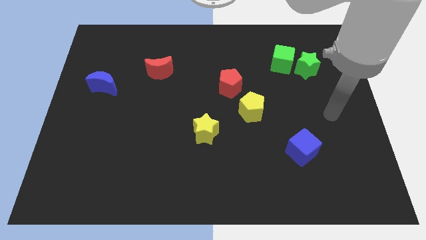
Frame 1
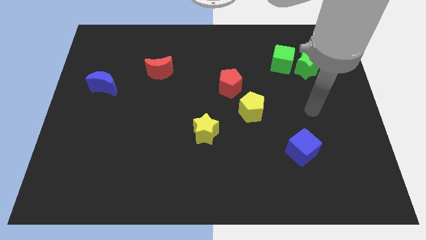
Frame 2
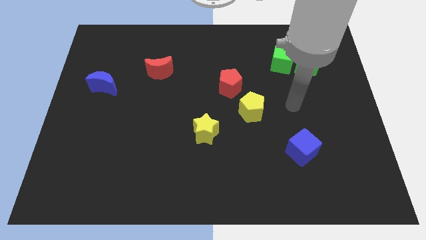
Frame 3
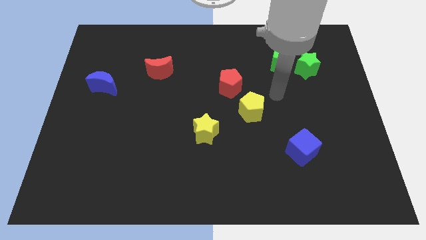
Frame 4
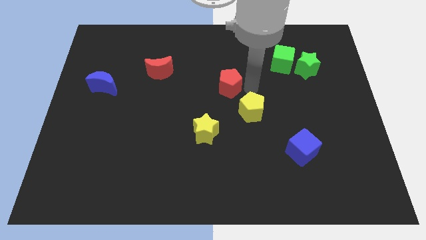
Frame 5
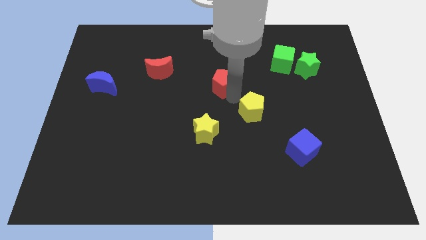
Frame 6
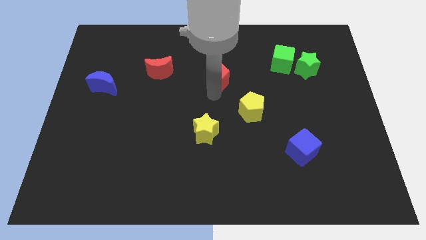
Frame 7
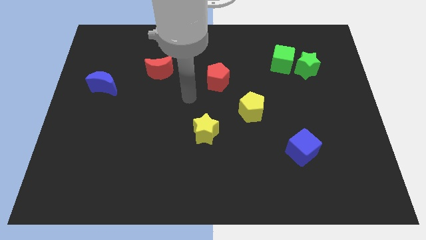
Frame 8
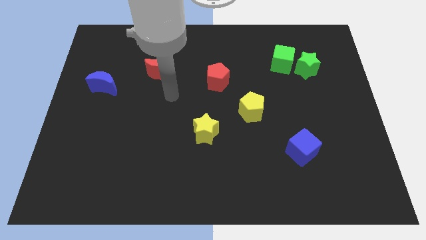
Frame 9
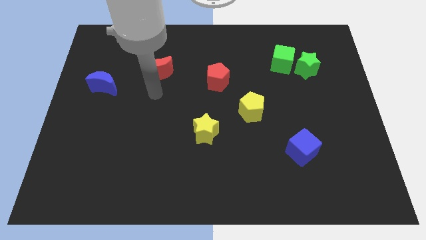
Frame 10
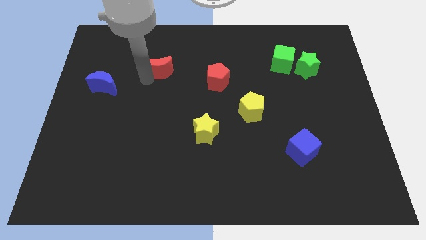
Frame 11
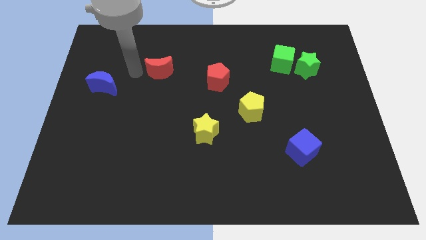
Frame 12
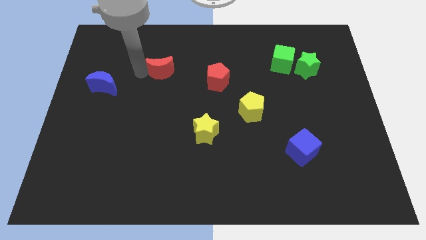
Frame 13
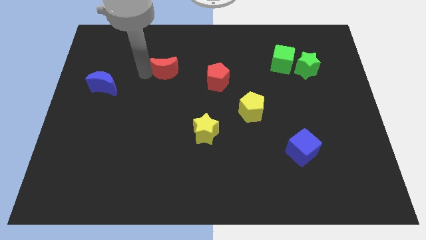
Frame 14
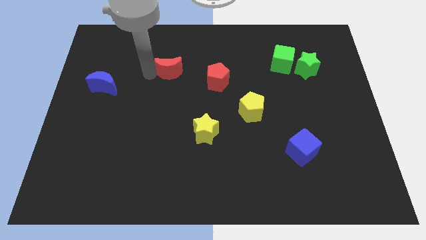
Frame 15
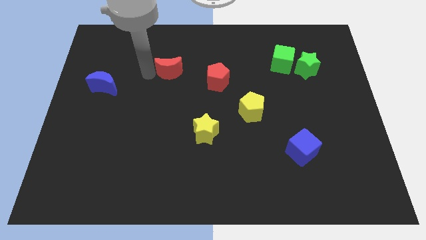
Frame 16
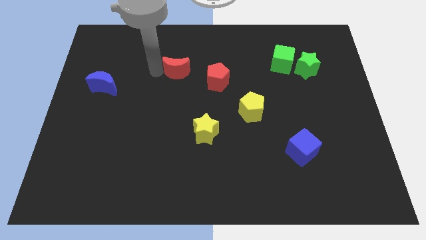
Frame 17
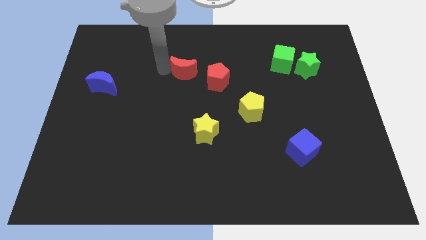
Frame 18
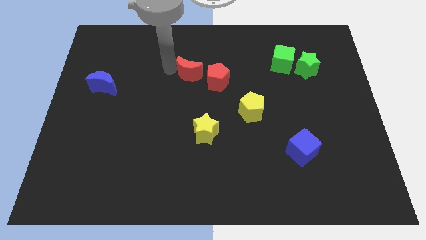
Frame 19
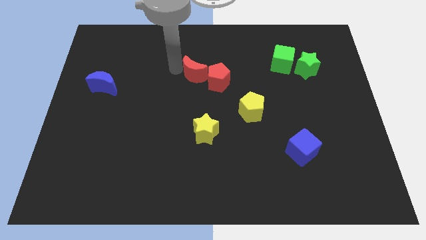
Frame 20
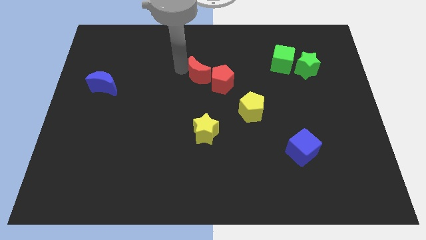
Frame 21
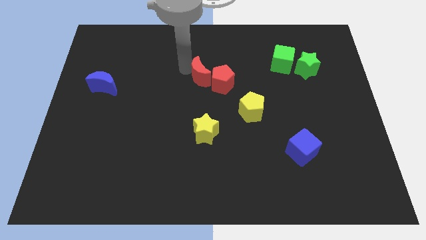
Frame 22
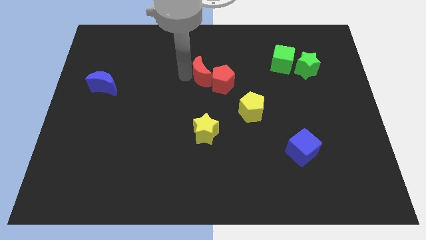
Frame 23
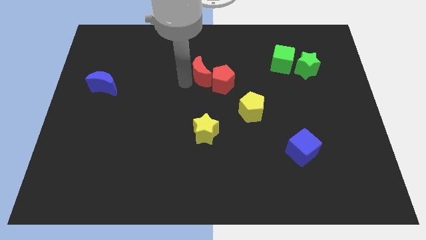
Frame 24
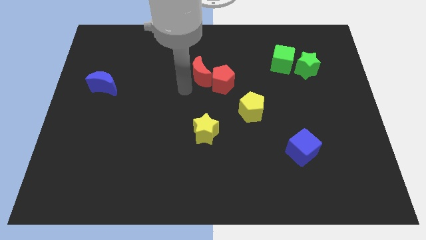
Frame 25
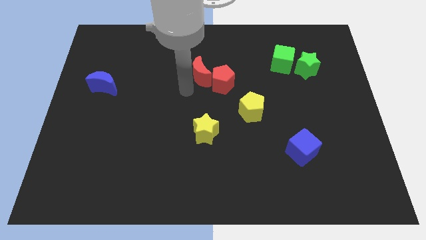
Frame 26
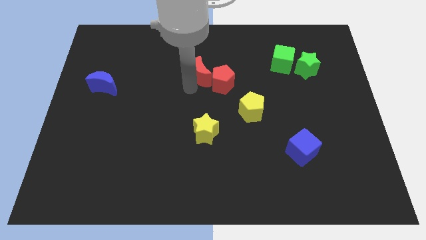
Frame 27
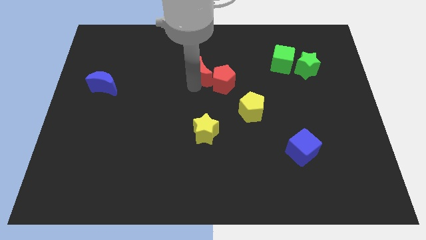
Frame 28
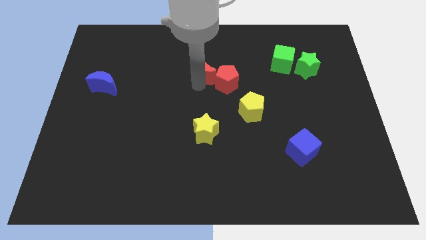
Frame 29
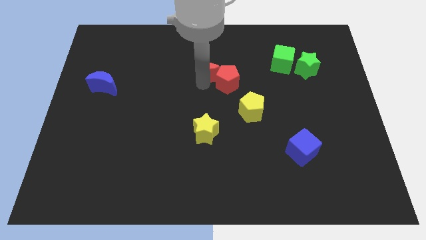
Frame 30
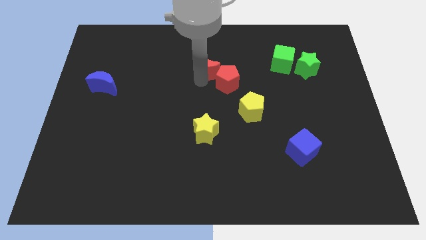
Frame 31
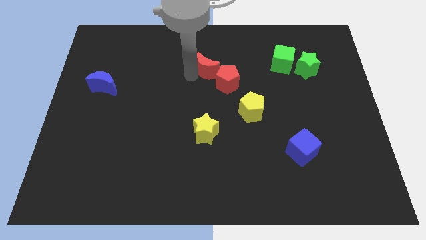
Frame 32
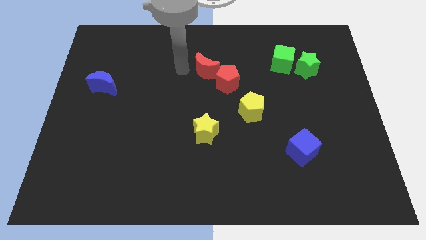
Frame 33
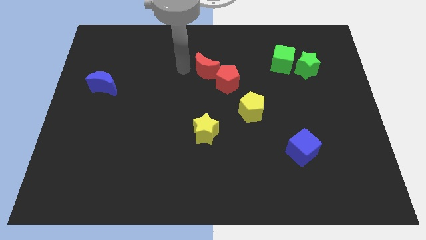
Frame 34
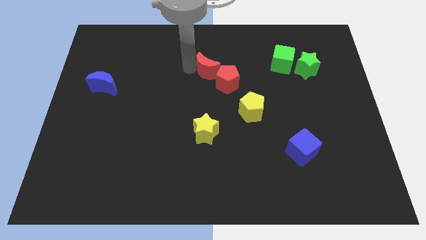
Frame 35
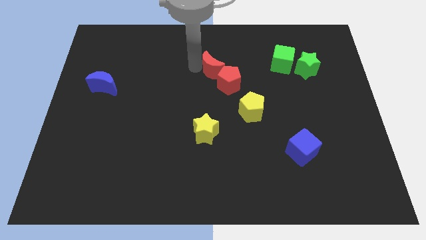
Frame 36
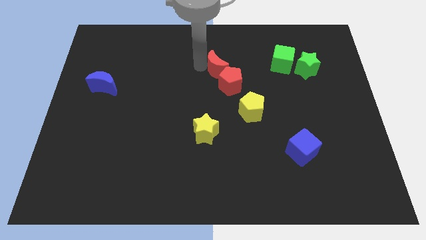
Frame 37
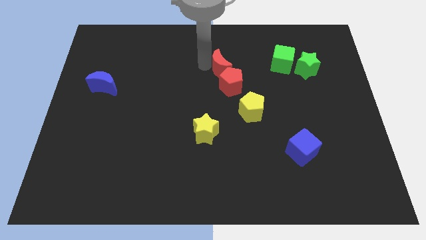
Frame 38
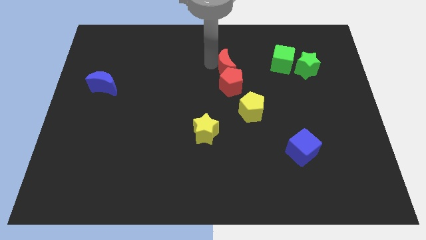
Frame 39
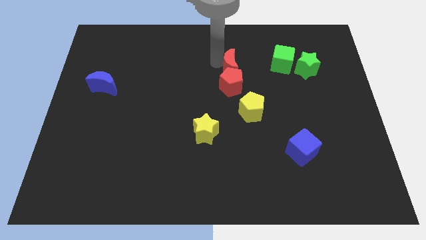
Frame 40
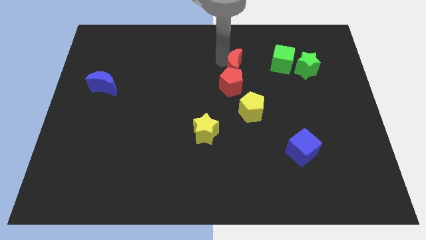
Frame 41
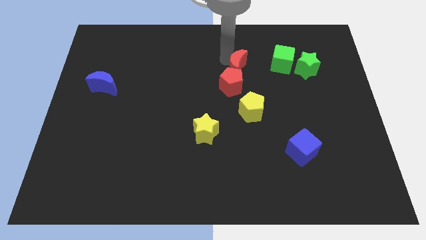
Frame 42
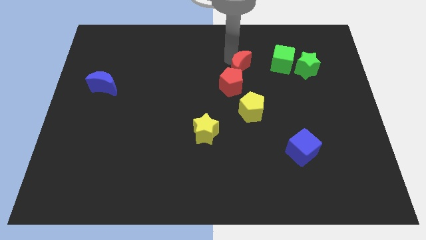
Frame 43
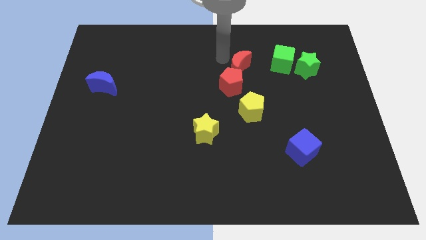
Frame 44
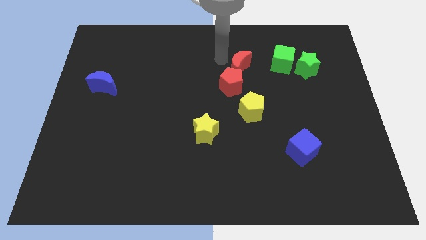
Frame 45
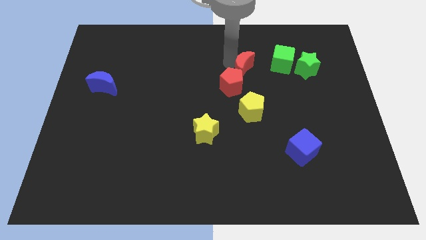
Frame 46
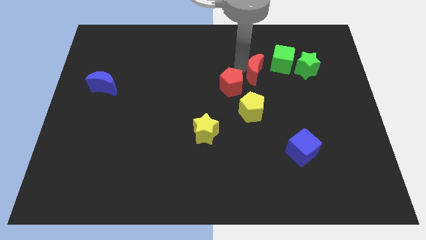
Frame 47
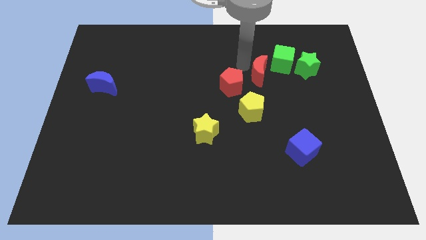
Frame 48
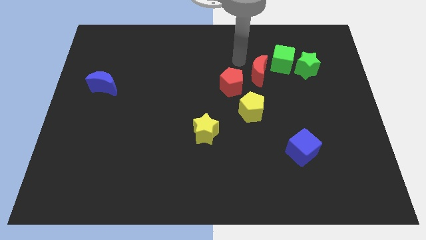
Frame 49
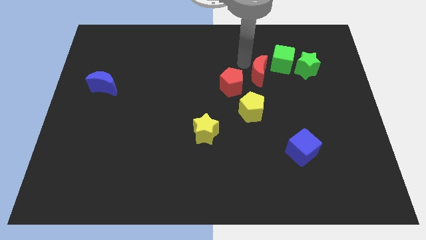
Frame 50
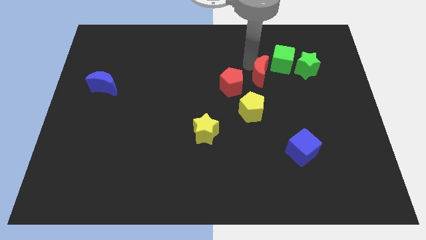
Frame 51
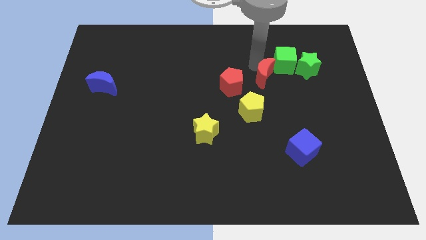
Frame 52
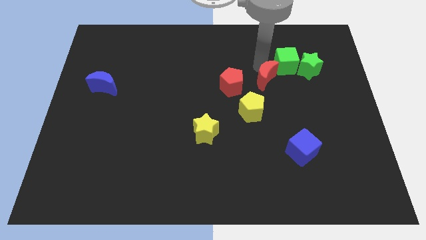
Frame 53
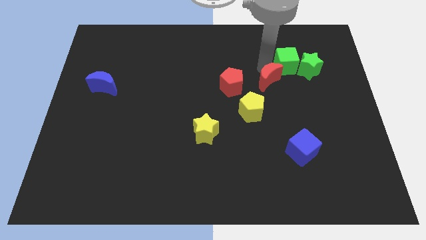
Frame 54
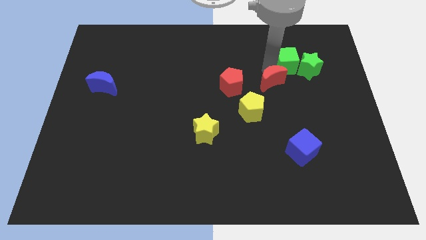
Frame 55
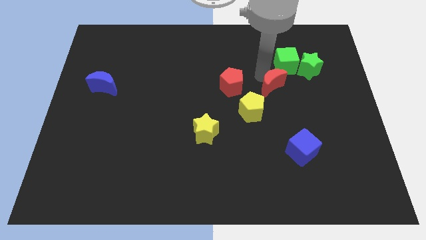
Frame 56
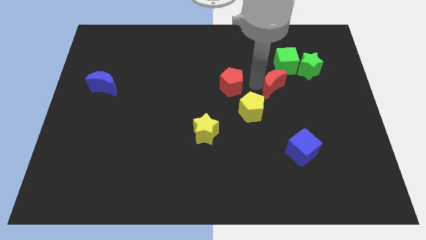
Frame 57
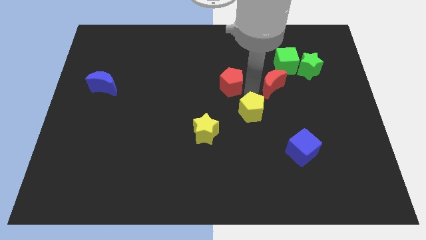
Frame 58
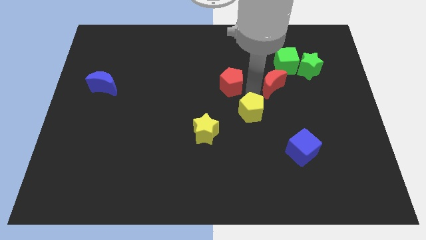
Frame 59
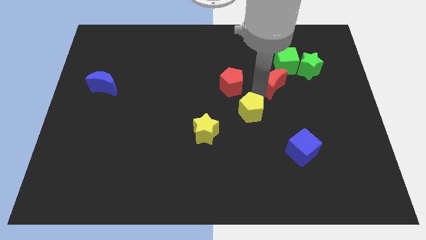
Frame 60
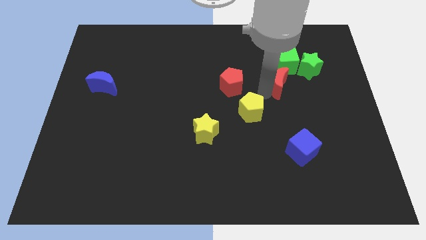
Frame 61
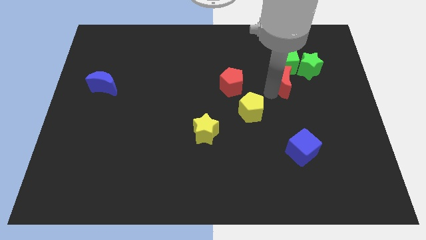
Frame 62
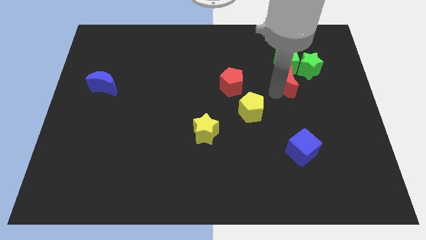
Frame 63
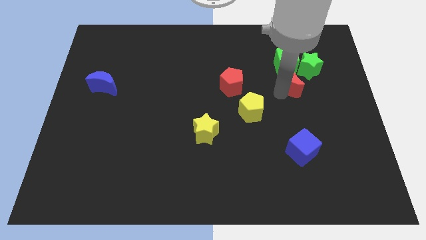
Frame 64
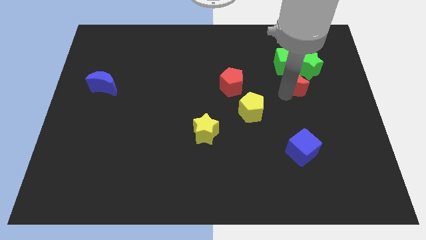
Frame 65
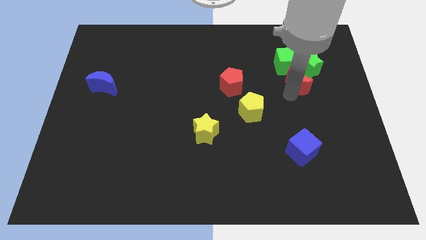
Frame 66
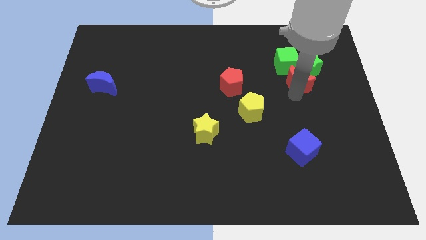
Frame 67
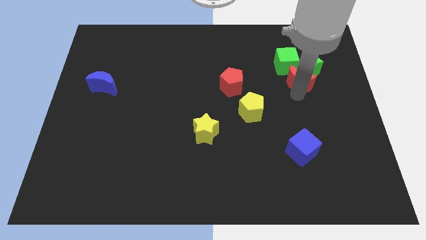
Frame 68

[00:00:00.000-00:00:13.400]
put the red moon towards the green star

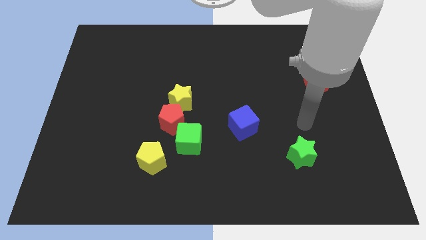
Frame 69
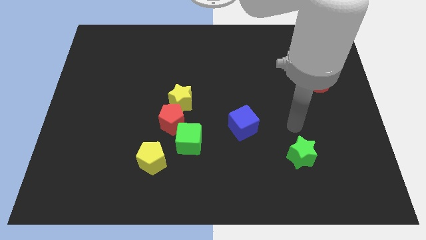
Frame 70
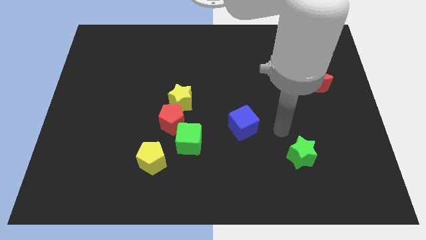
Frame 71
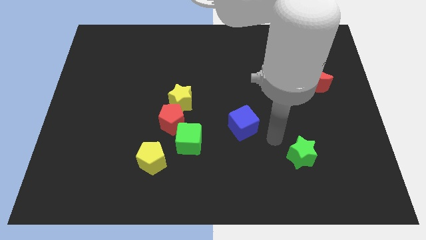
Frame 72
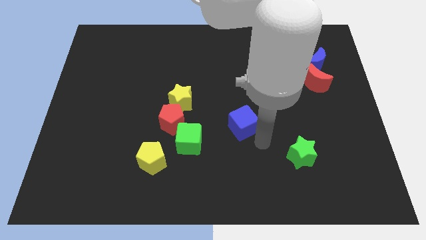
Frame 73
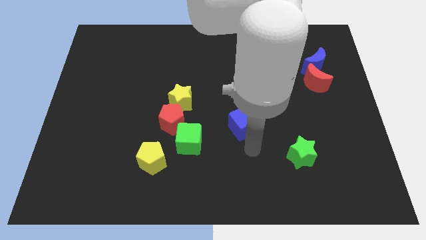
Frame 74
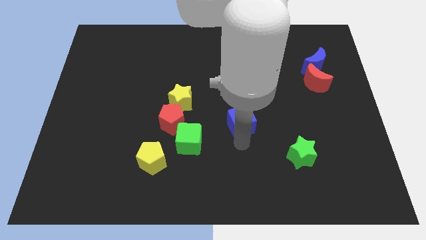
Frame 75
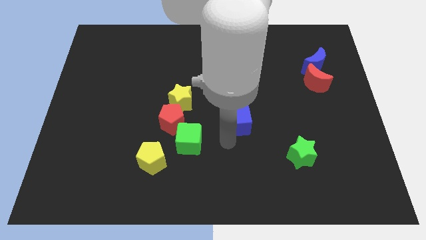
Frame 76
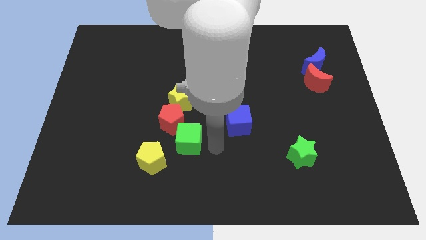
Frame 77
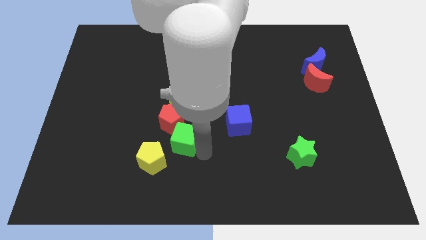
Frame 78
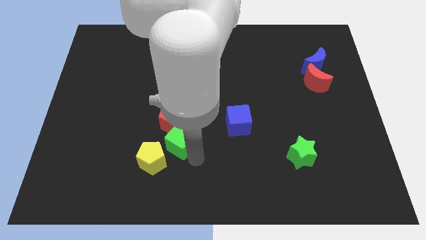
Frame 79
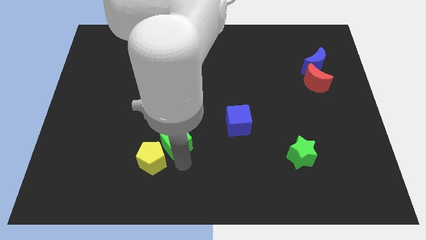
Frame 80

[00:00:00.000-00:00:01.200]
put the yellow pentagon towards the green cube
